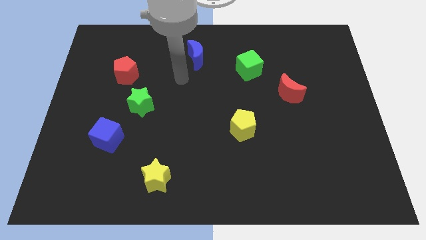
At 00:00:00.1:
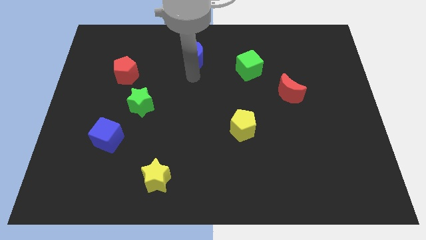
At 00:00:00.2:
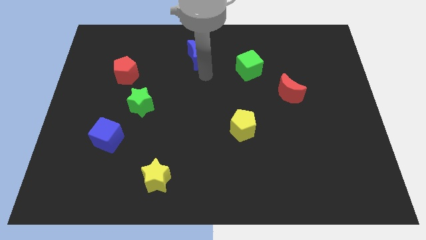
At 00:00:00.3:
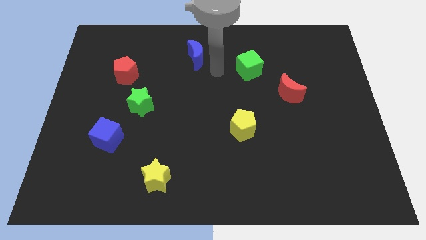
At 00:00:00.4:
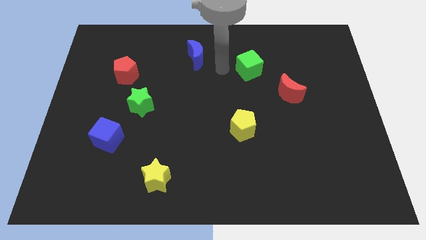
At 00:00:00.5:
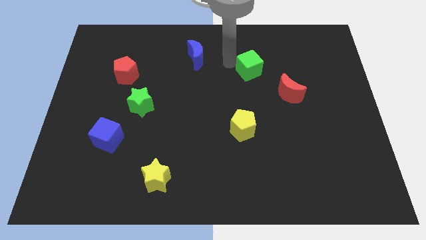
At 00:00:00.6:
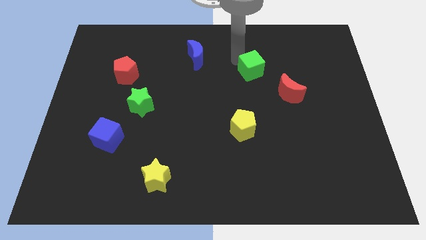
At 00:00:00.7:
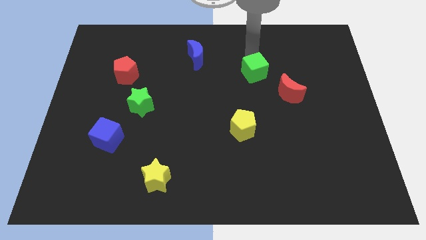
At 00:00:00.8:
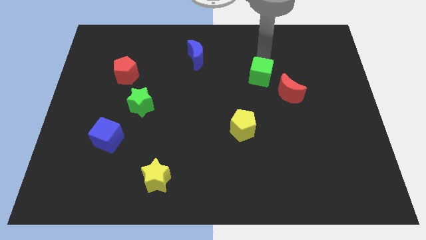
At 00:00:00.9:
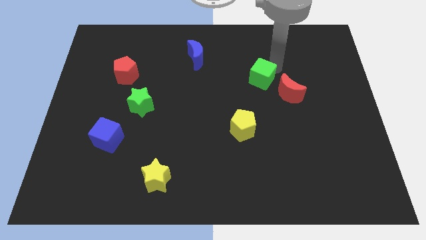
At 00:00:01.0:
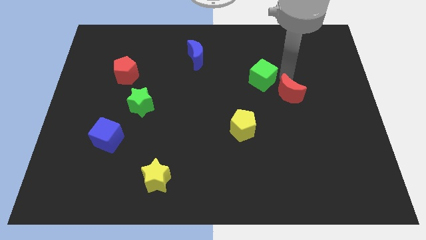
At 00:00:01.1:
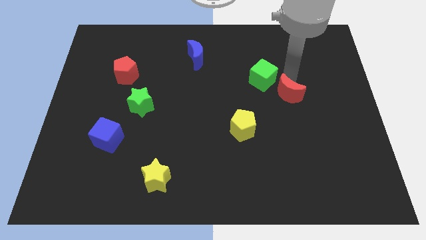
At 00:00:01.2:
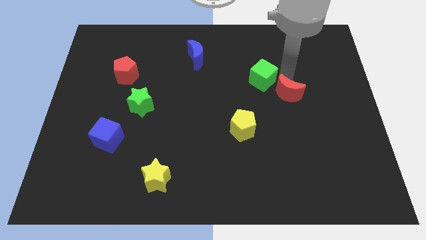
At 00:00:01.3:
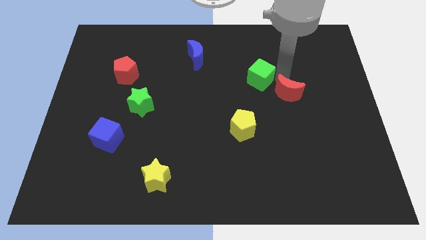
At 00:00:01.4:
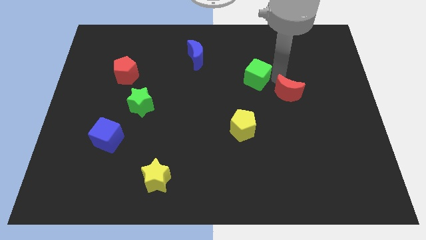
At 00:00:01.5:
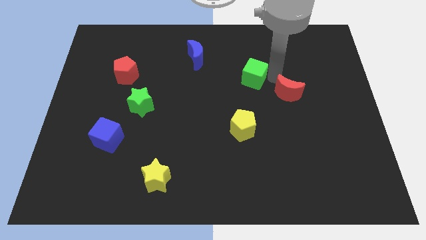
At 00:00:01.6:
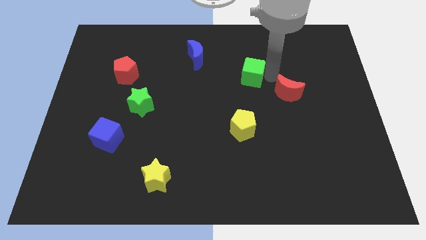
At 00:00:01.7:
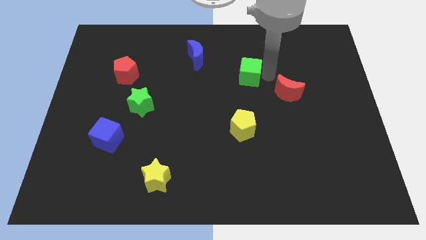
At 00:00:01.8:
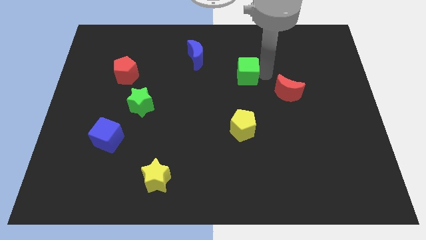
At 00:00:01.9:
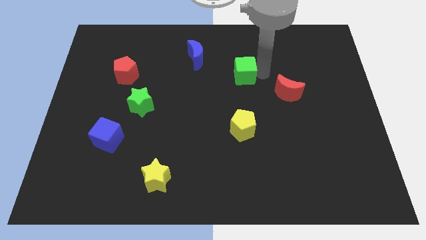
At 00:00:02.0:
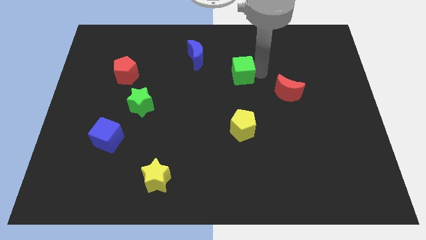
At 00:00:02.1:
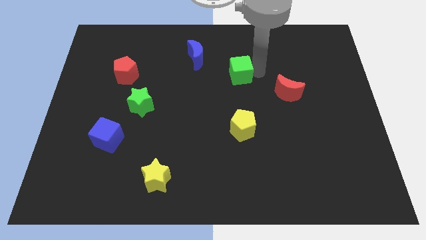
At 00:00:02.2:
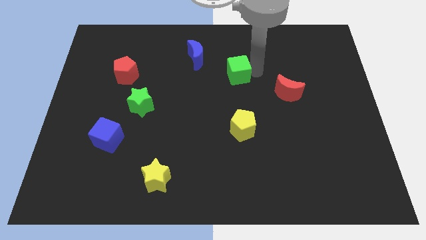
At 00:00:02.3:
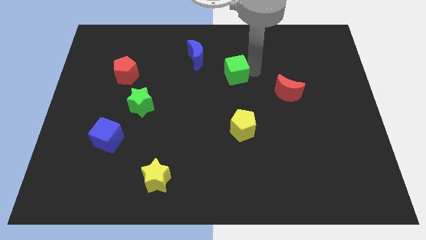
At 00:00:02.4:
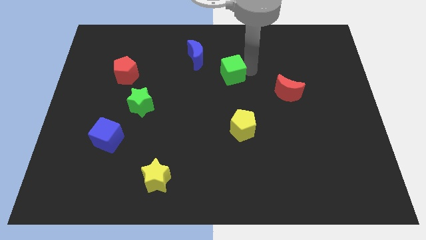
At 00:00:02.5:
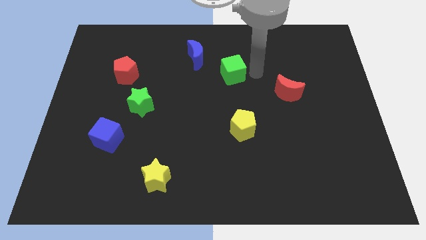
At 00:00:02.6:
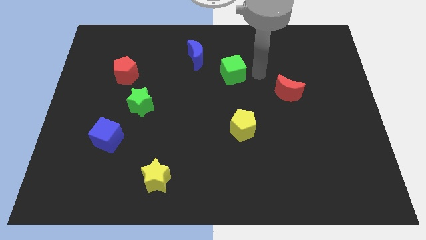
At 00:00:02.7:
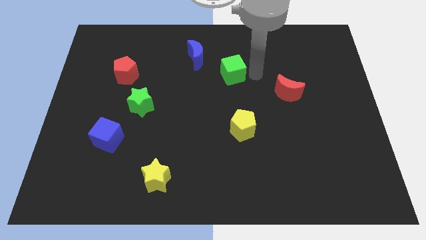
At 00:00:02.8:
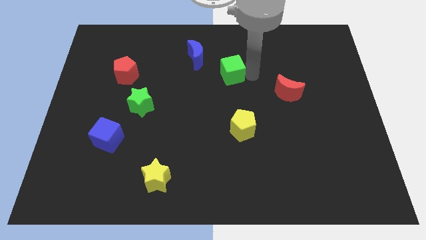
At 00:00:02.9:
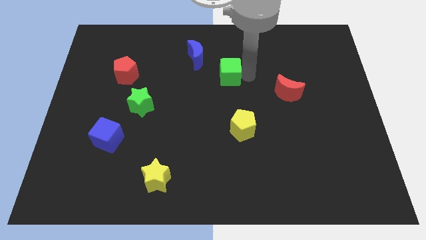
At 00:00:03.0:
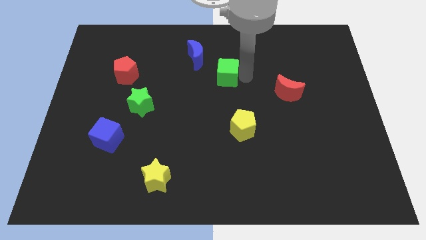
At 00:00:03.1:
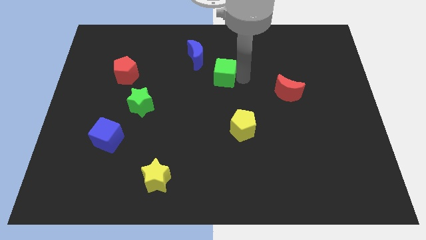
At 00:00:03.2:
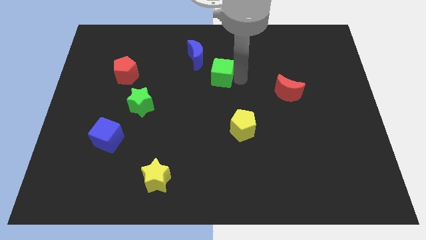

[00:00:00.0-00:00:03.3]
push the green cube to the left a little bit

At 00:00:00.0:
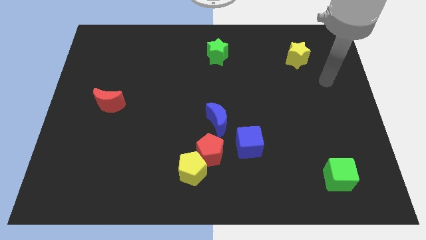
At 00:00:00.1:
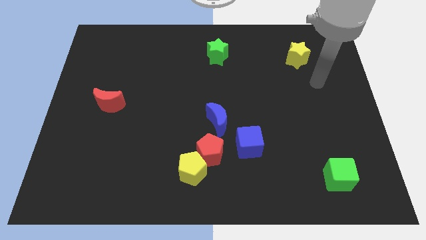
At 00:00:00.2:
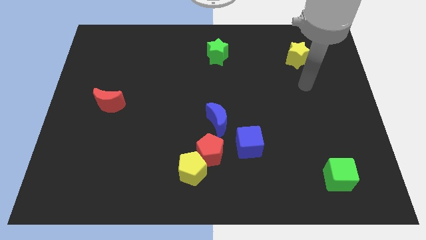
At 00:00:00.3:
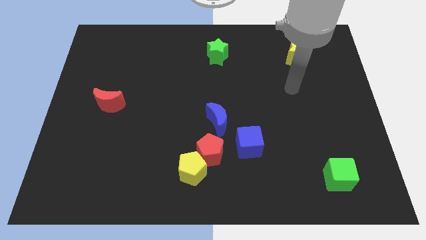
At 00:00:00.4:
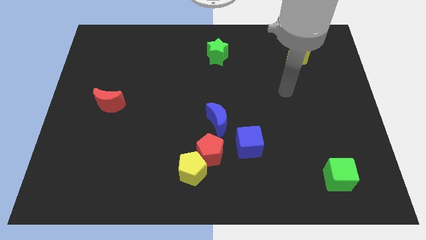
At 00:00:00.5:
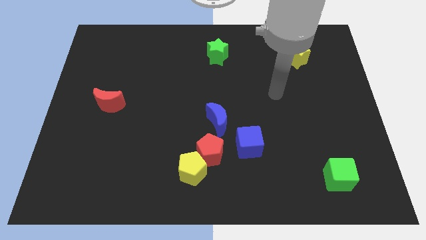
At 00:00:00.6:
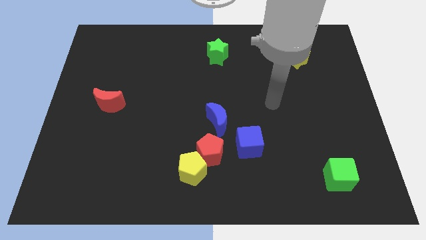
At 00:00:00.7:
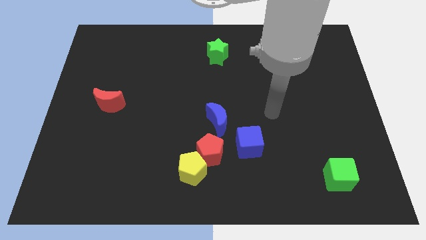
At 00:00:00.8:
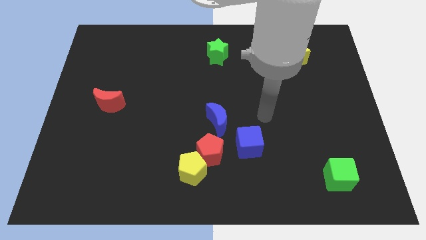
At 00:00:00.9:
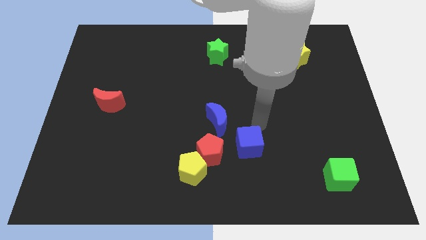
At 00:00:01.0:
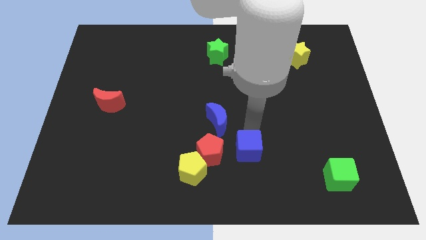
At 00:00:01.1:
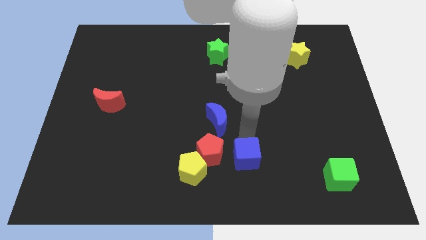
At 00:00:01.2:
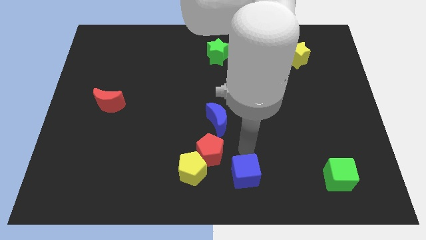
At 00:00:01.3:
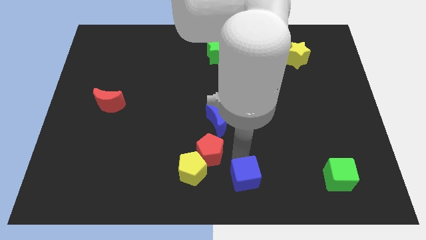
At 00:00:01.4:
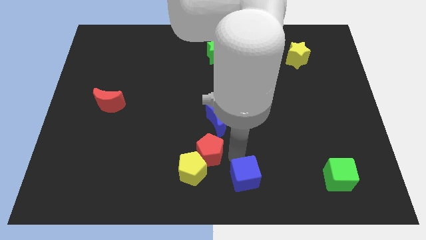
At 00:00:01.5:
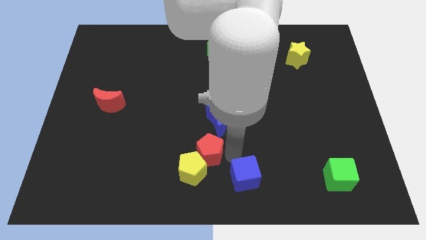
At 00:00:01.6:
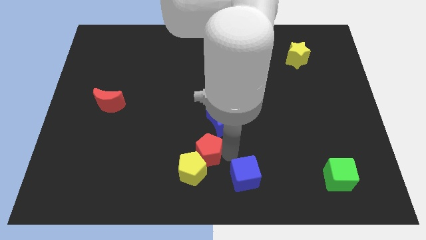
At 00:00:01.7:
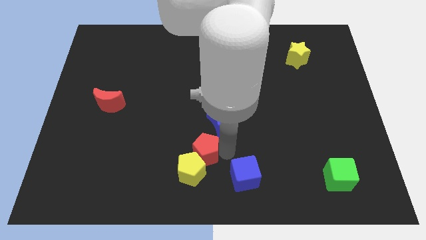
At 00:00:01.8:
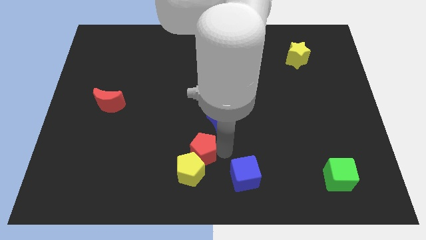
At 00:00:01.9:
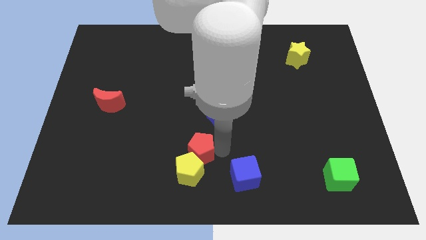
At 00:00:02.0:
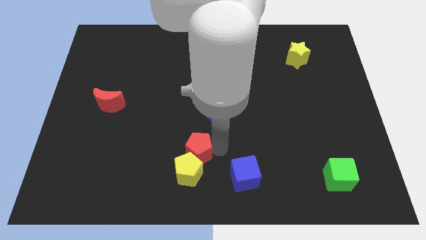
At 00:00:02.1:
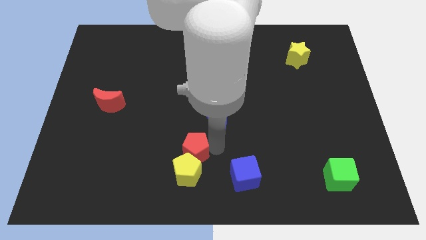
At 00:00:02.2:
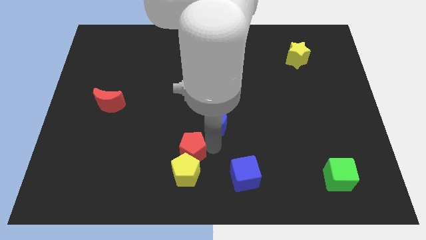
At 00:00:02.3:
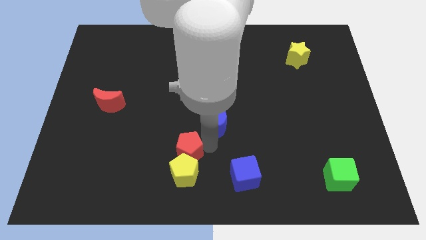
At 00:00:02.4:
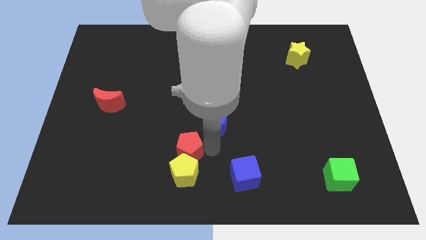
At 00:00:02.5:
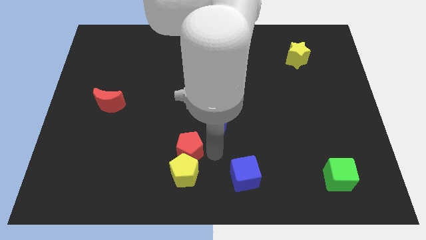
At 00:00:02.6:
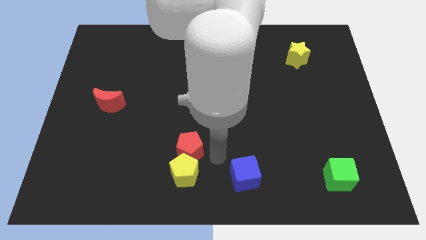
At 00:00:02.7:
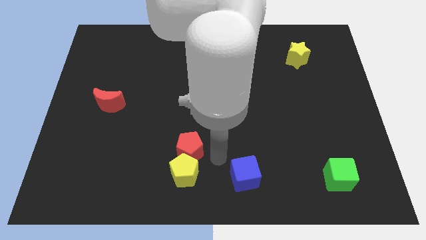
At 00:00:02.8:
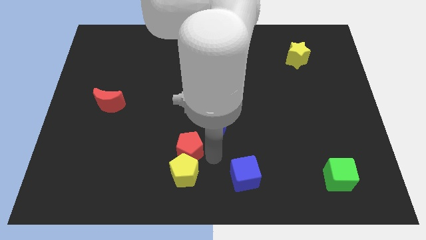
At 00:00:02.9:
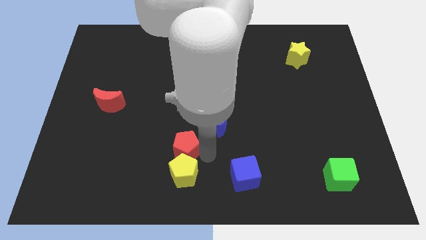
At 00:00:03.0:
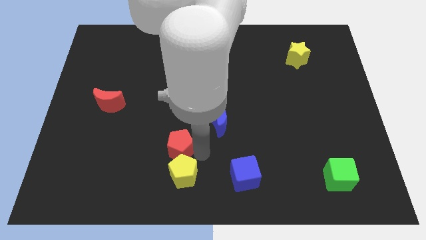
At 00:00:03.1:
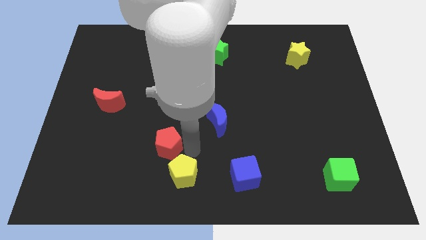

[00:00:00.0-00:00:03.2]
slightly move the red pentagon left

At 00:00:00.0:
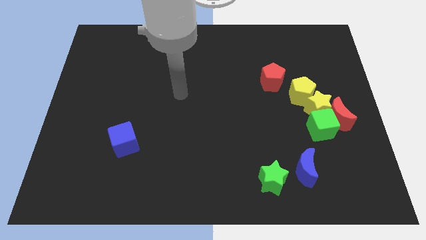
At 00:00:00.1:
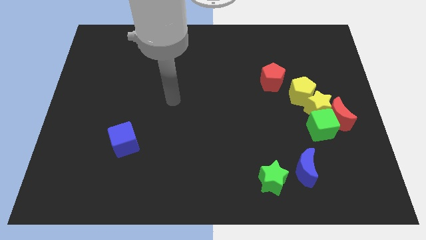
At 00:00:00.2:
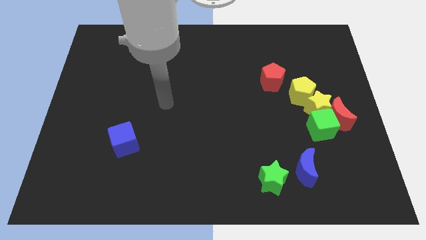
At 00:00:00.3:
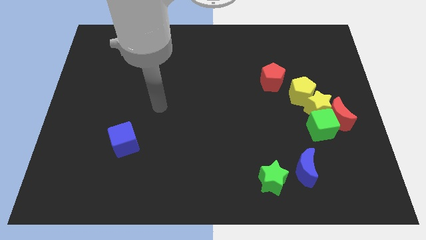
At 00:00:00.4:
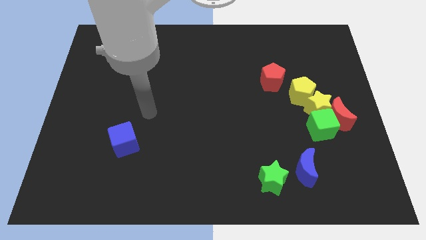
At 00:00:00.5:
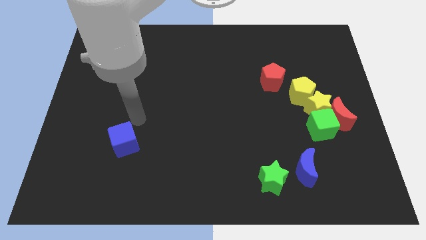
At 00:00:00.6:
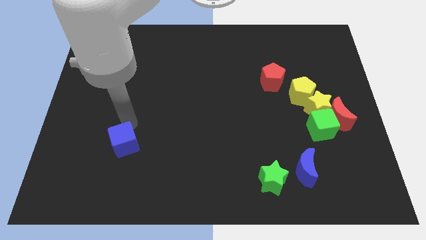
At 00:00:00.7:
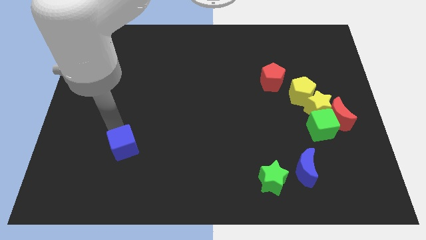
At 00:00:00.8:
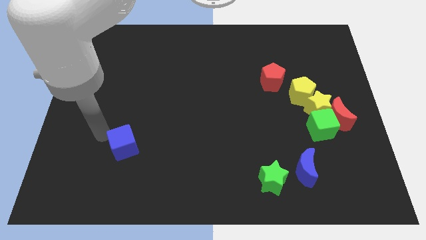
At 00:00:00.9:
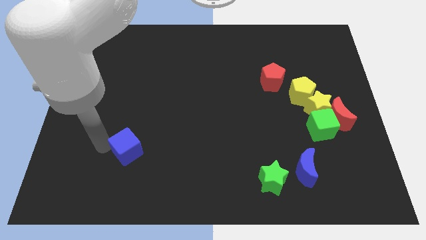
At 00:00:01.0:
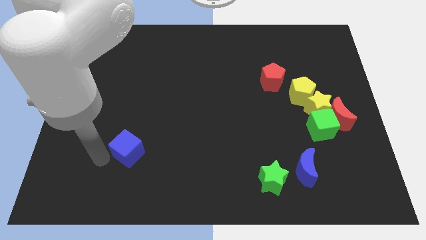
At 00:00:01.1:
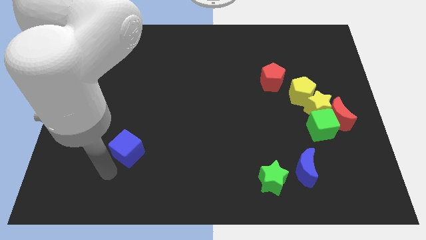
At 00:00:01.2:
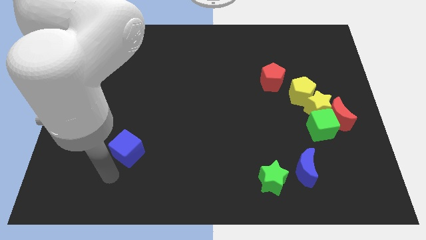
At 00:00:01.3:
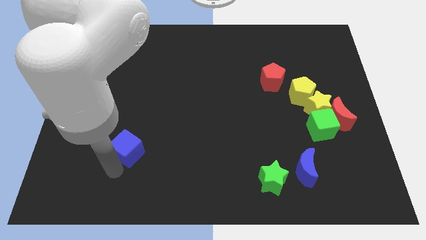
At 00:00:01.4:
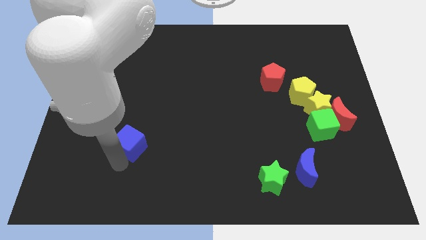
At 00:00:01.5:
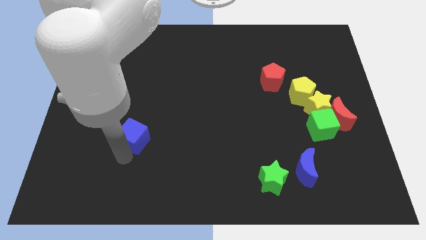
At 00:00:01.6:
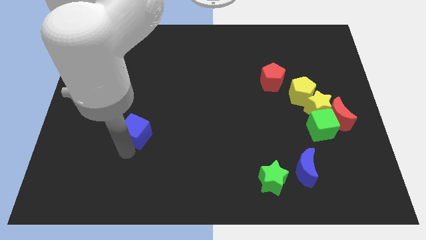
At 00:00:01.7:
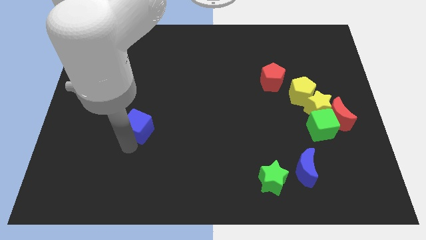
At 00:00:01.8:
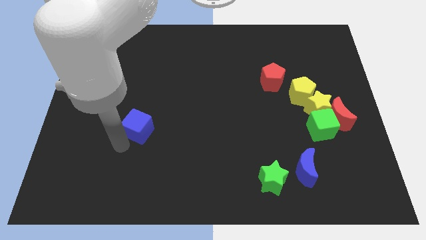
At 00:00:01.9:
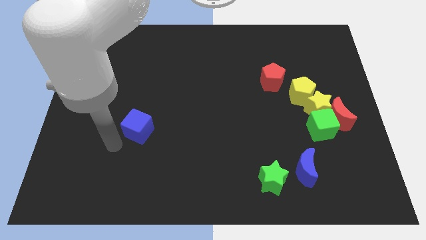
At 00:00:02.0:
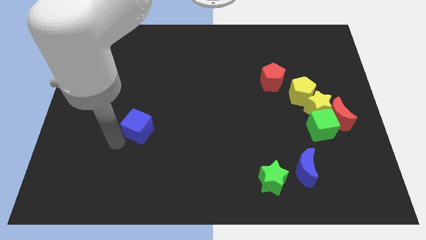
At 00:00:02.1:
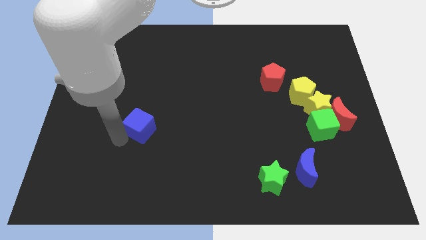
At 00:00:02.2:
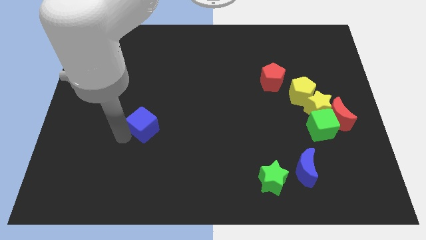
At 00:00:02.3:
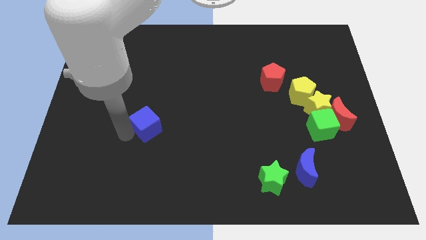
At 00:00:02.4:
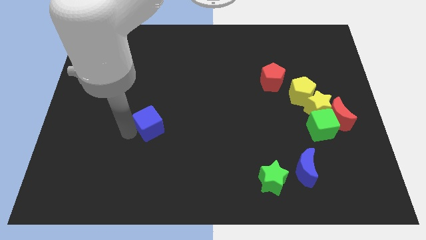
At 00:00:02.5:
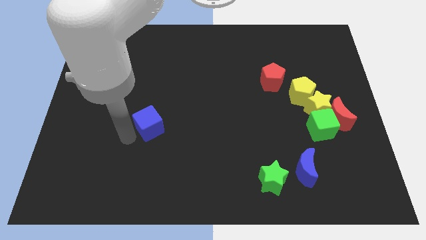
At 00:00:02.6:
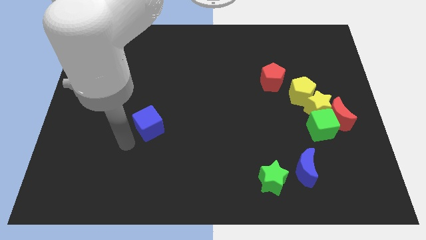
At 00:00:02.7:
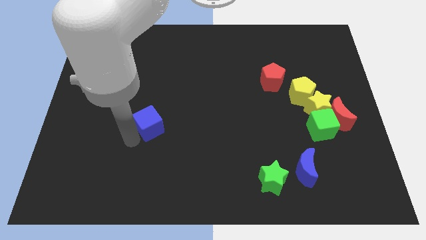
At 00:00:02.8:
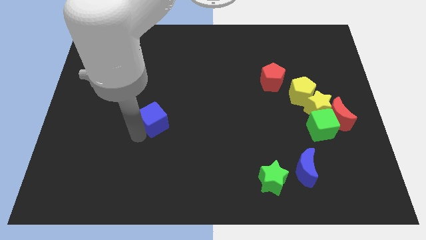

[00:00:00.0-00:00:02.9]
move the blue cube up and to the right diagonally a little bit
